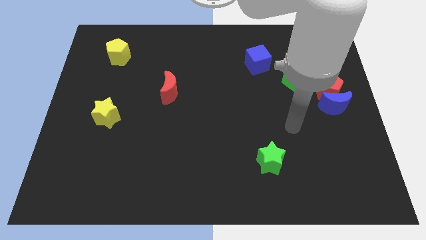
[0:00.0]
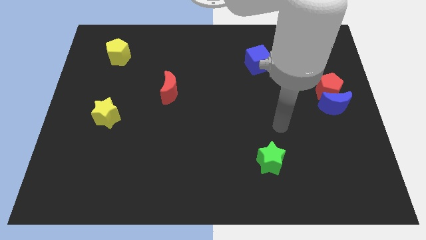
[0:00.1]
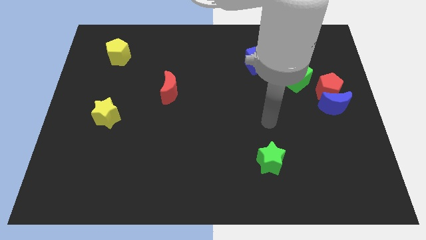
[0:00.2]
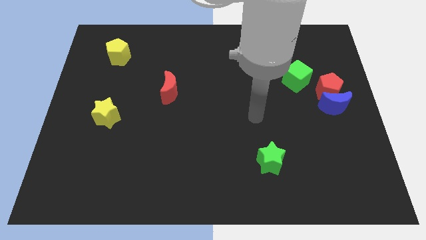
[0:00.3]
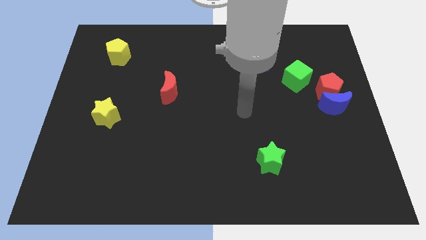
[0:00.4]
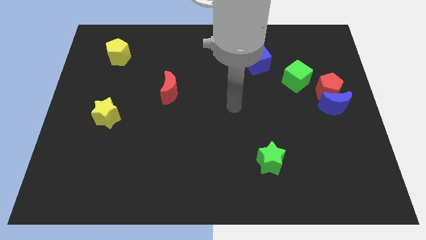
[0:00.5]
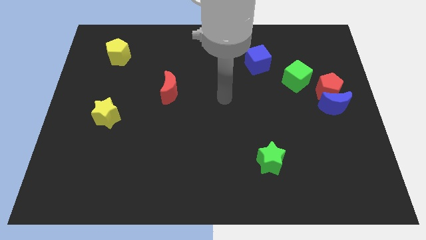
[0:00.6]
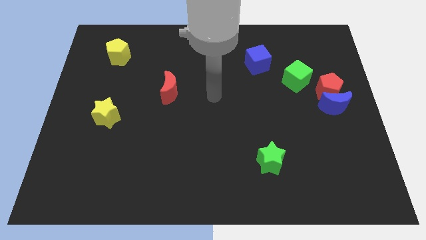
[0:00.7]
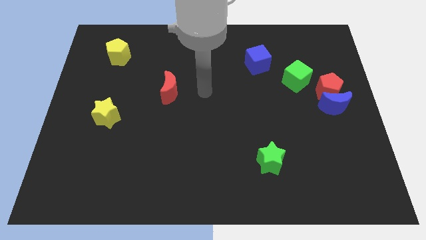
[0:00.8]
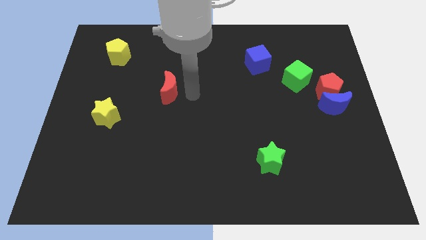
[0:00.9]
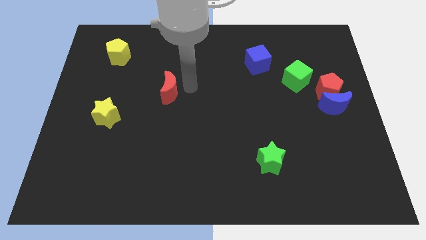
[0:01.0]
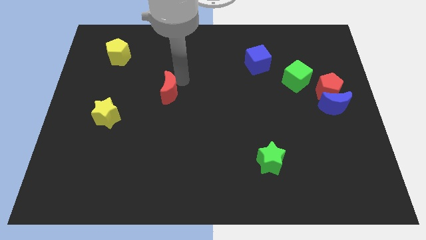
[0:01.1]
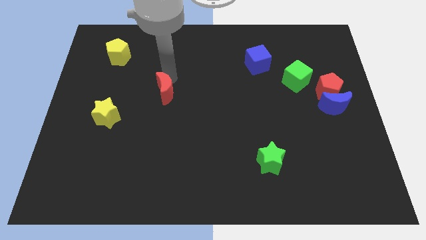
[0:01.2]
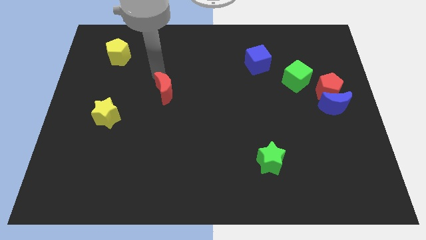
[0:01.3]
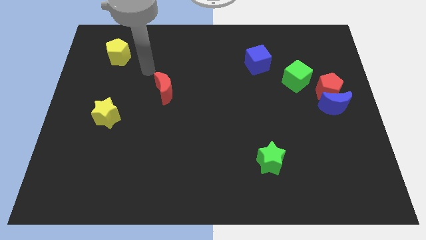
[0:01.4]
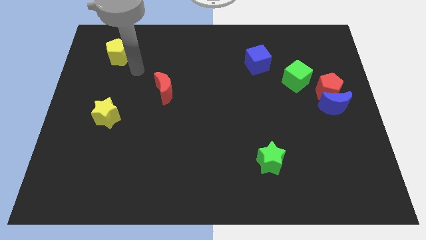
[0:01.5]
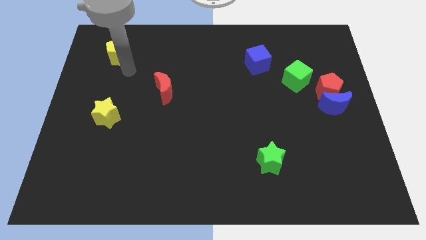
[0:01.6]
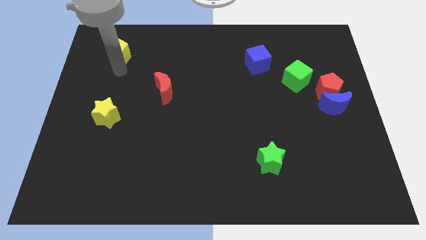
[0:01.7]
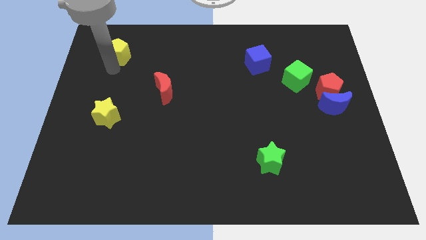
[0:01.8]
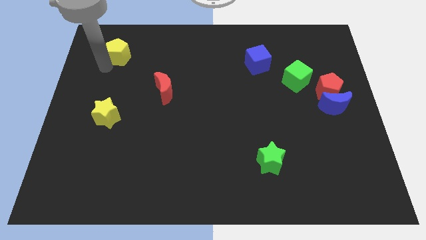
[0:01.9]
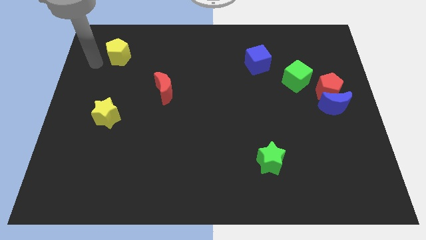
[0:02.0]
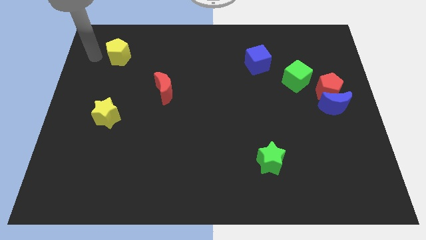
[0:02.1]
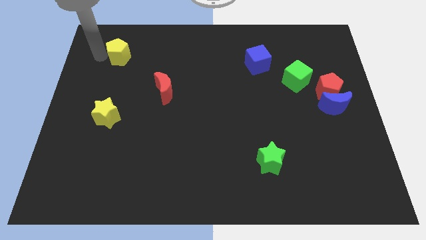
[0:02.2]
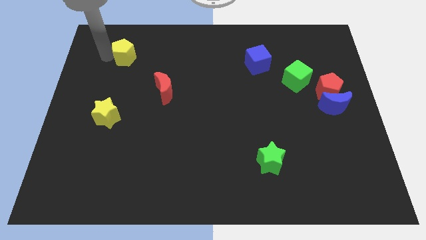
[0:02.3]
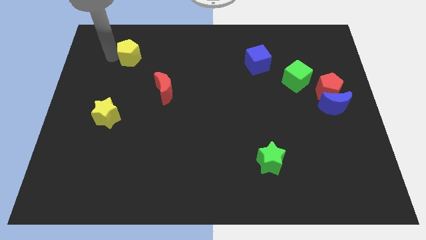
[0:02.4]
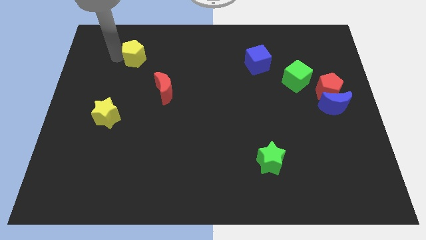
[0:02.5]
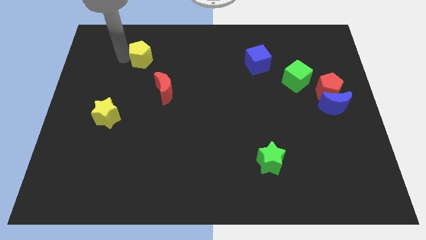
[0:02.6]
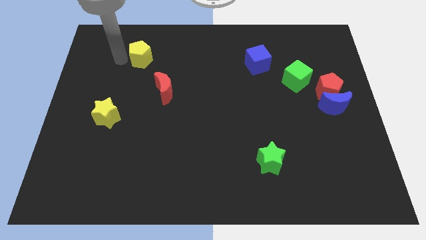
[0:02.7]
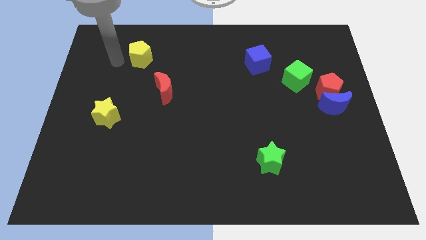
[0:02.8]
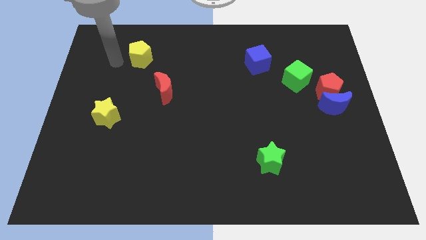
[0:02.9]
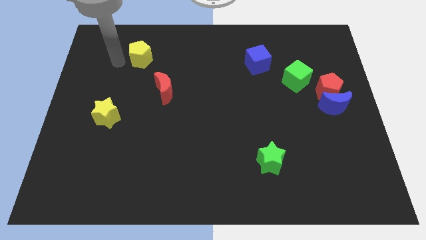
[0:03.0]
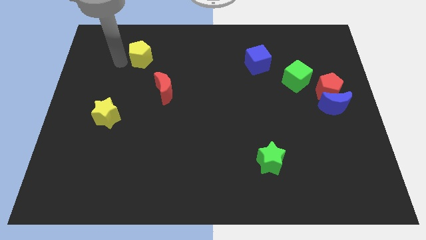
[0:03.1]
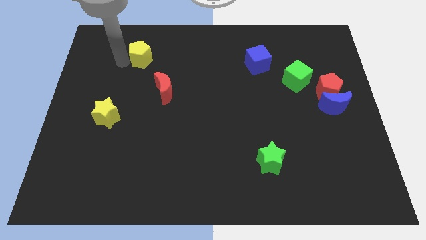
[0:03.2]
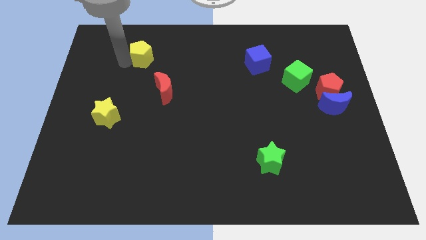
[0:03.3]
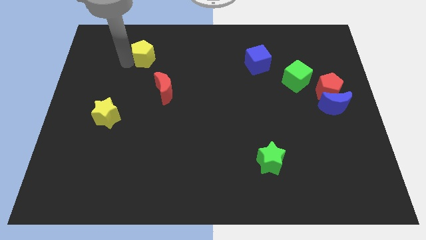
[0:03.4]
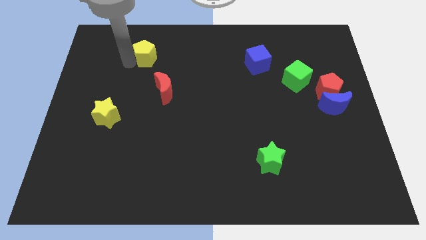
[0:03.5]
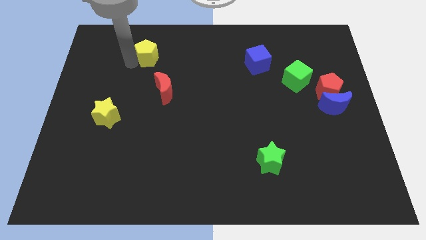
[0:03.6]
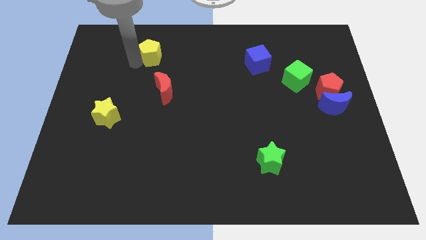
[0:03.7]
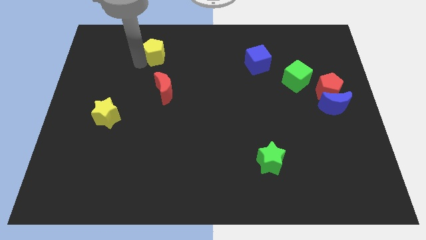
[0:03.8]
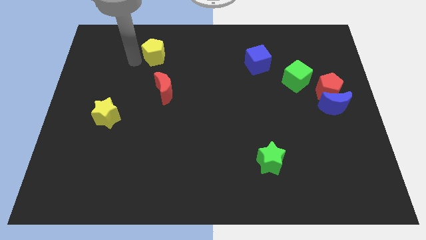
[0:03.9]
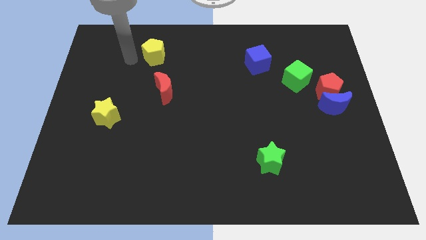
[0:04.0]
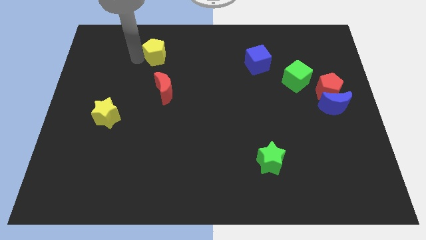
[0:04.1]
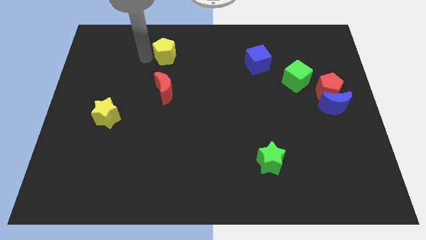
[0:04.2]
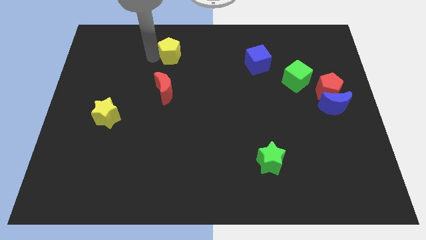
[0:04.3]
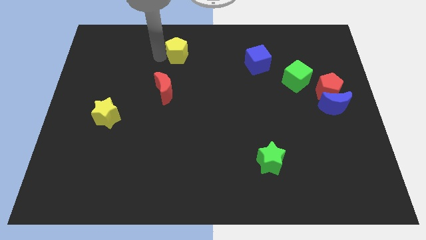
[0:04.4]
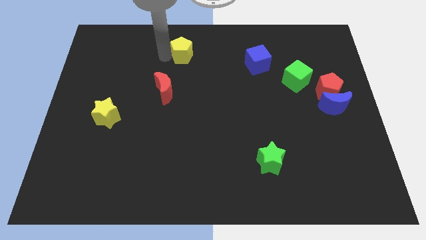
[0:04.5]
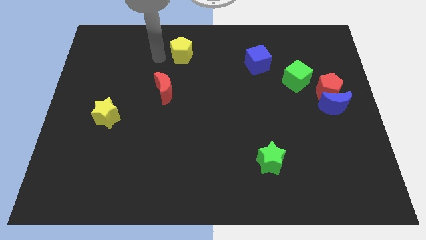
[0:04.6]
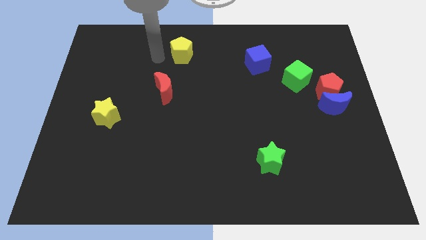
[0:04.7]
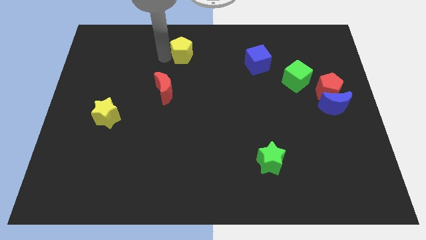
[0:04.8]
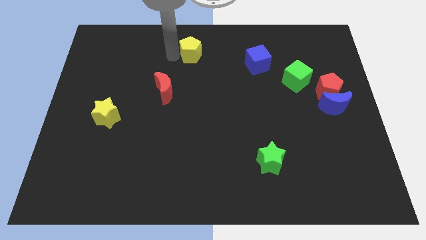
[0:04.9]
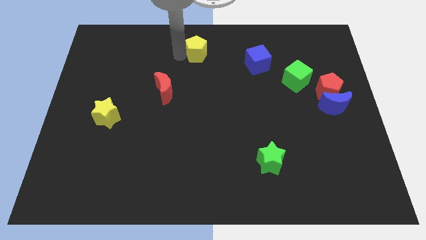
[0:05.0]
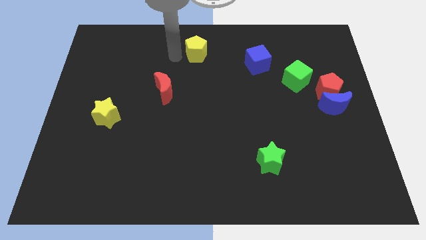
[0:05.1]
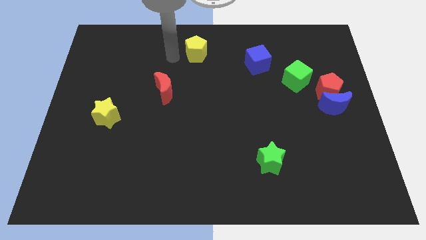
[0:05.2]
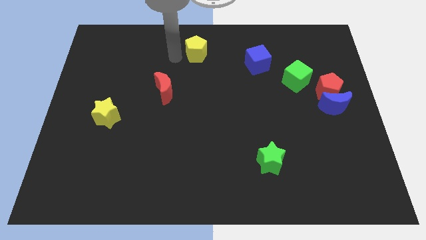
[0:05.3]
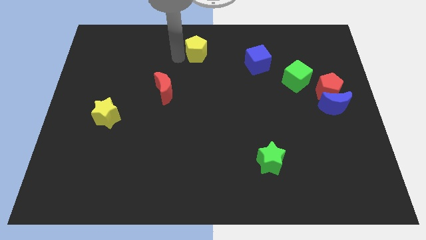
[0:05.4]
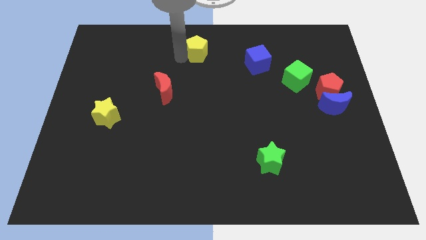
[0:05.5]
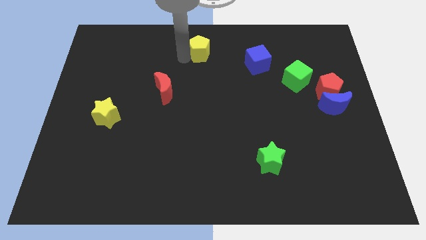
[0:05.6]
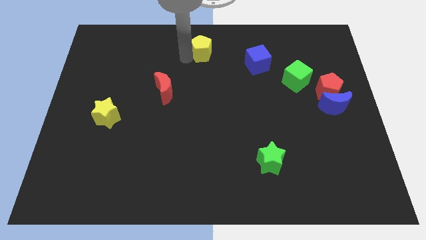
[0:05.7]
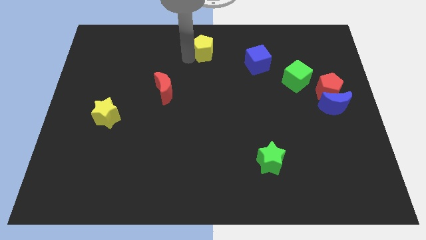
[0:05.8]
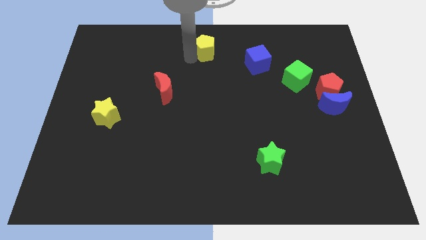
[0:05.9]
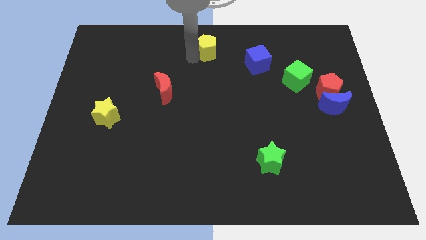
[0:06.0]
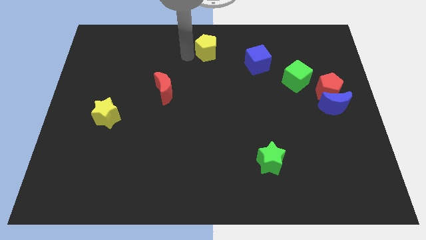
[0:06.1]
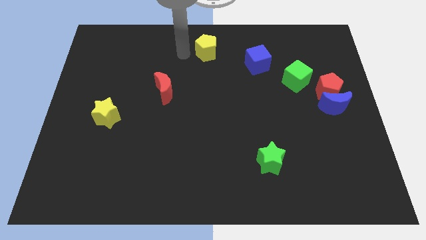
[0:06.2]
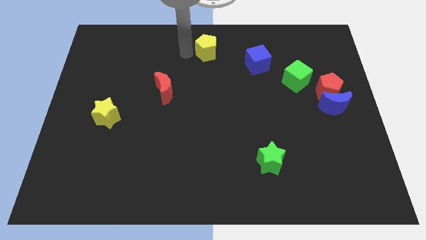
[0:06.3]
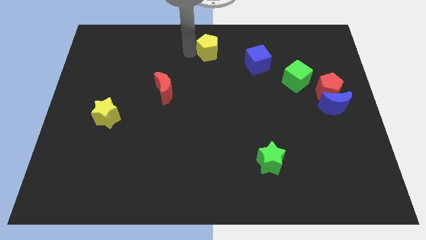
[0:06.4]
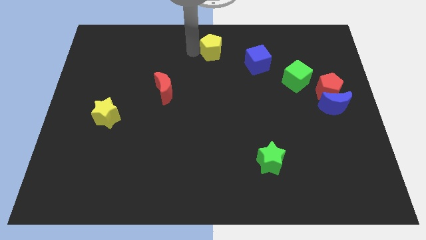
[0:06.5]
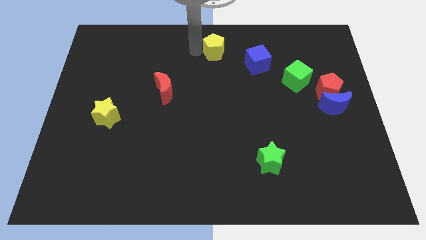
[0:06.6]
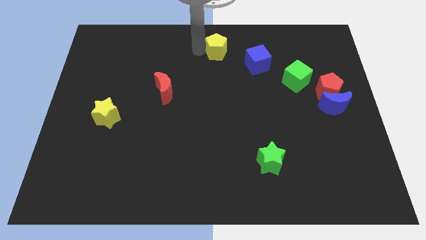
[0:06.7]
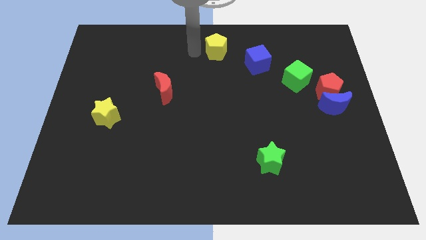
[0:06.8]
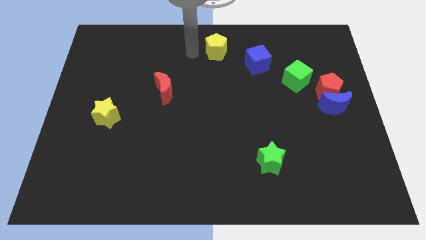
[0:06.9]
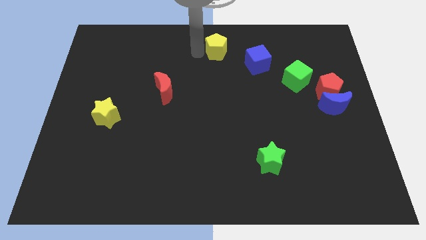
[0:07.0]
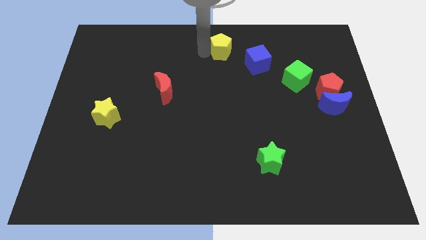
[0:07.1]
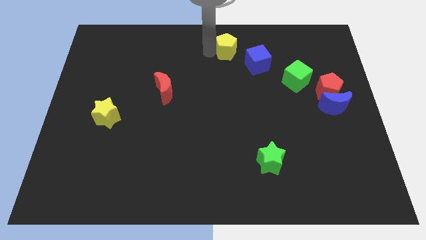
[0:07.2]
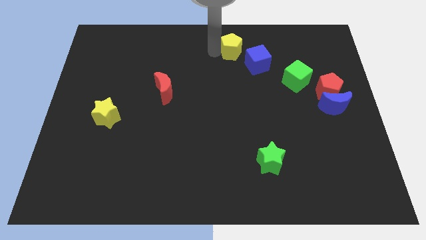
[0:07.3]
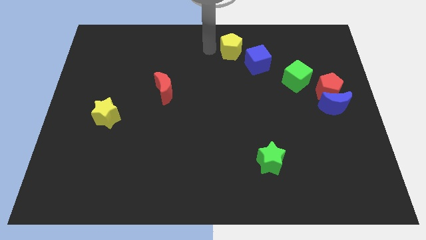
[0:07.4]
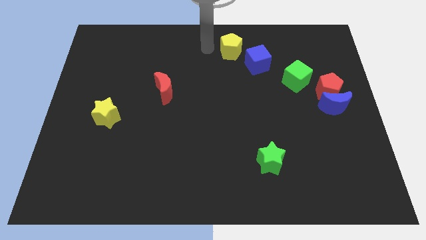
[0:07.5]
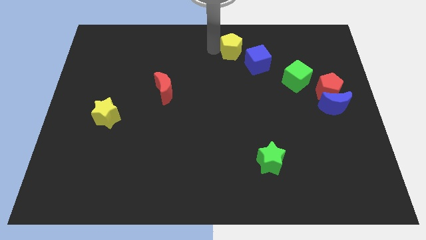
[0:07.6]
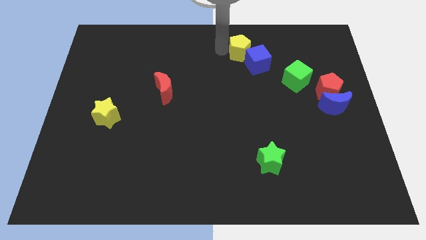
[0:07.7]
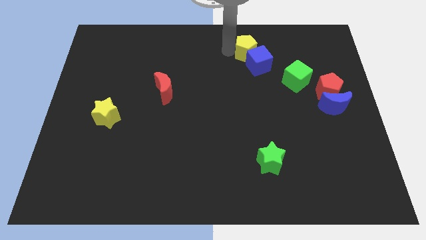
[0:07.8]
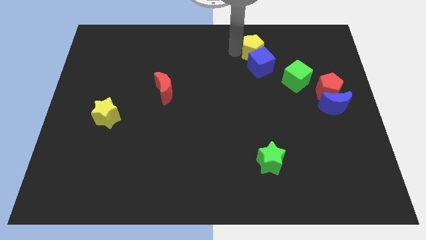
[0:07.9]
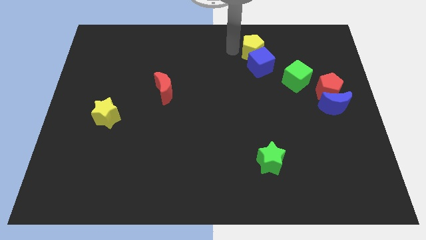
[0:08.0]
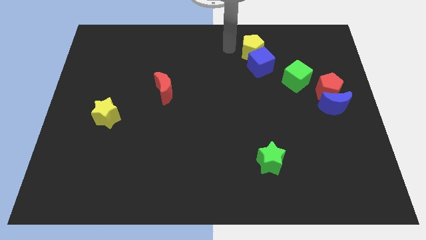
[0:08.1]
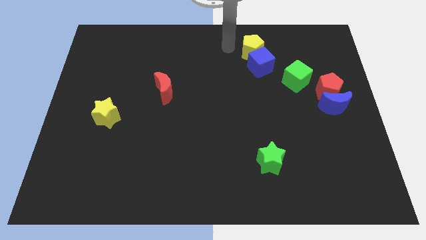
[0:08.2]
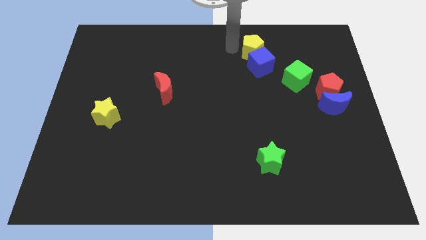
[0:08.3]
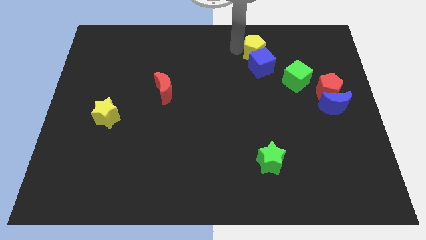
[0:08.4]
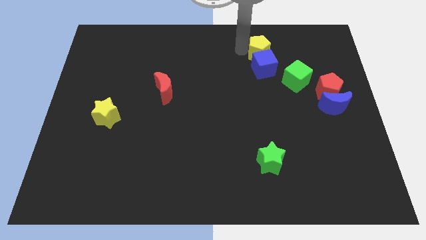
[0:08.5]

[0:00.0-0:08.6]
push the yellow pentagon to the top left of the green cube
